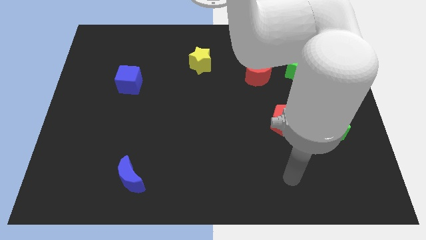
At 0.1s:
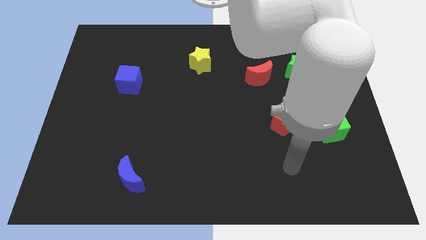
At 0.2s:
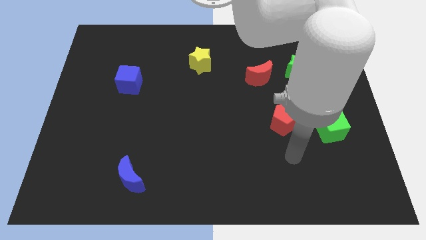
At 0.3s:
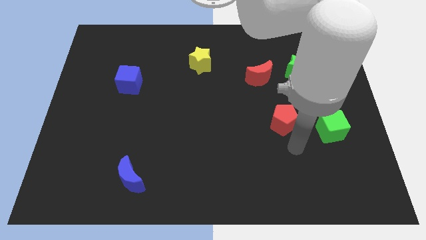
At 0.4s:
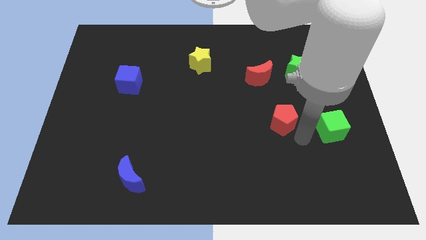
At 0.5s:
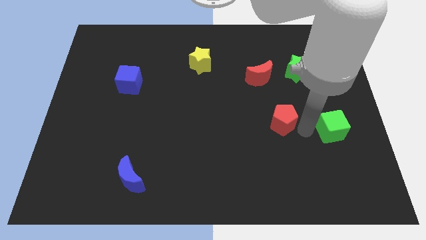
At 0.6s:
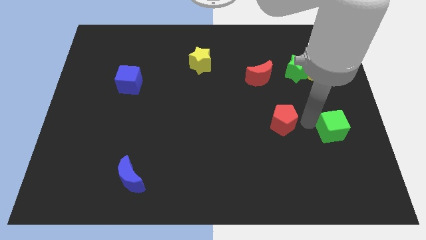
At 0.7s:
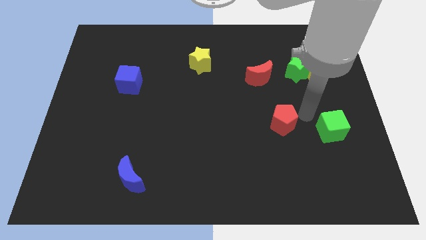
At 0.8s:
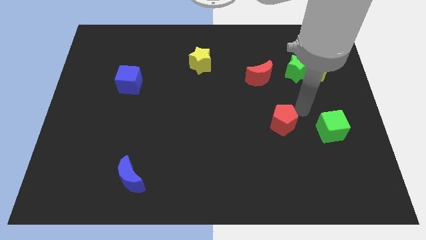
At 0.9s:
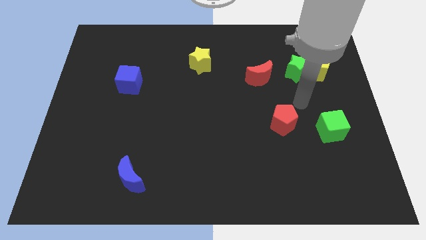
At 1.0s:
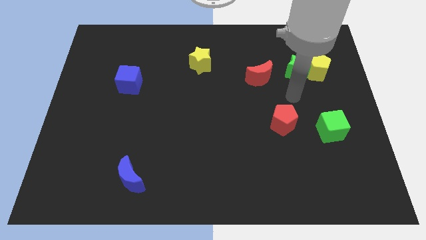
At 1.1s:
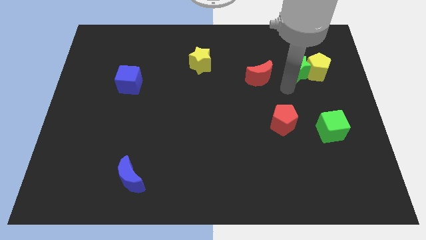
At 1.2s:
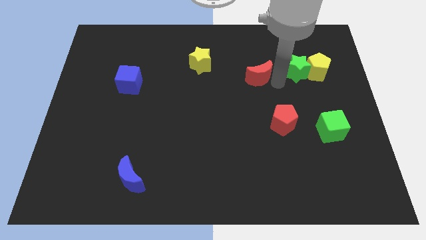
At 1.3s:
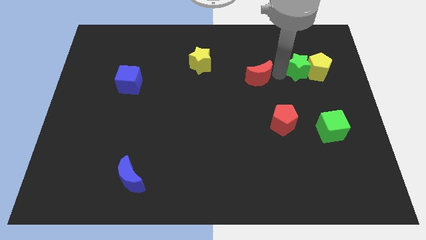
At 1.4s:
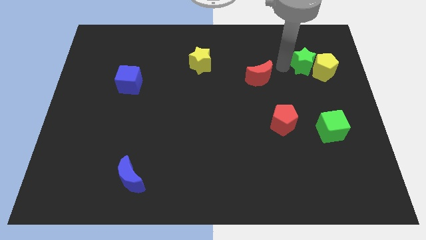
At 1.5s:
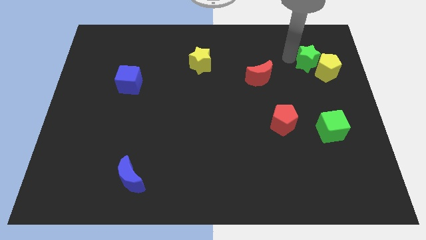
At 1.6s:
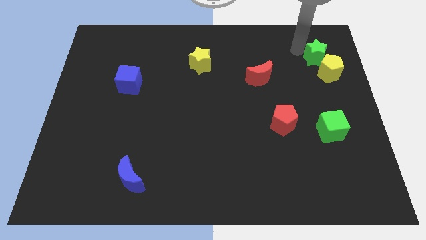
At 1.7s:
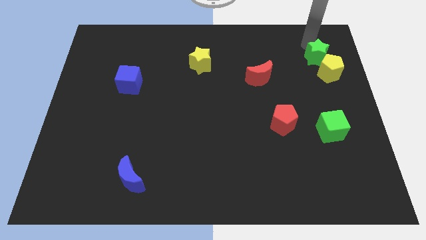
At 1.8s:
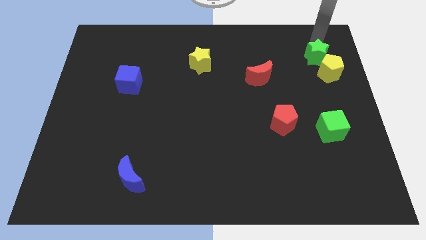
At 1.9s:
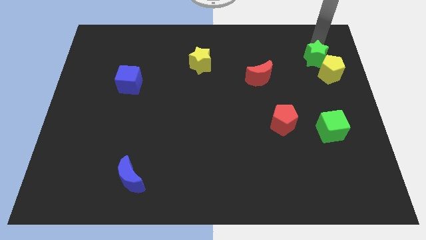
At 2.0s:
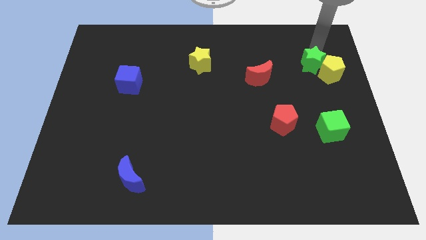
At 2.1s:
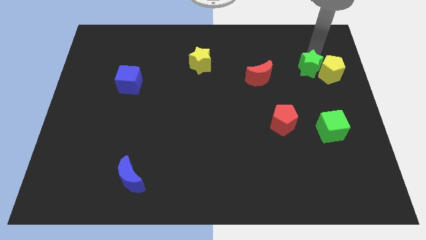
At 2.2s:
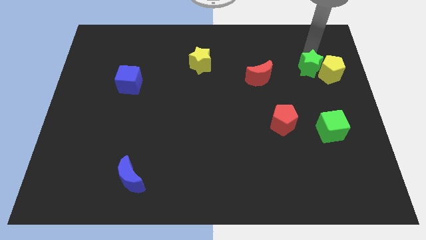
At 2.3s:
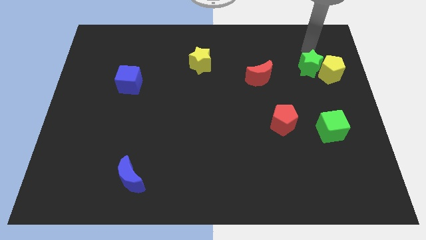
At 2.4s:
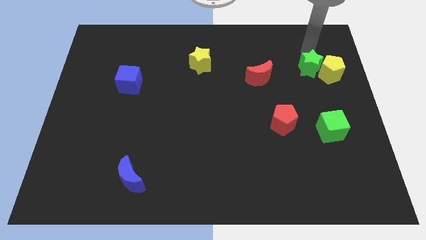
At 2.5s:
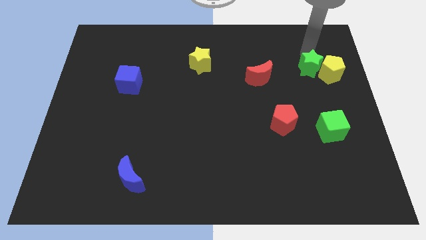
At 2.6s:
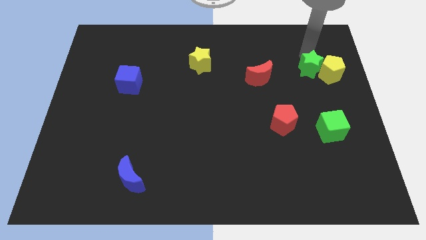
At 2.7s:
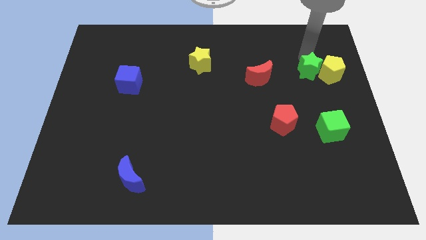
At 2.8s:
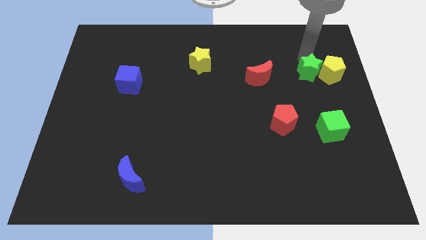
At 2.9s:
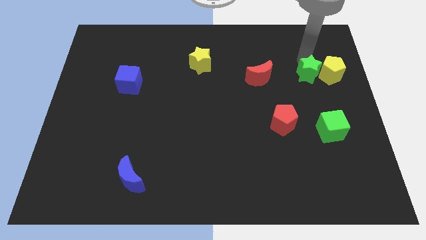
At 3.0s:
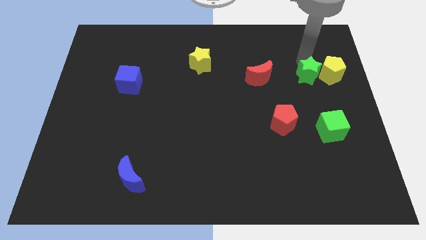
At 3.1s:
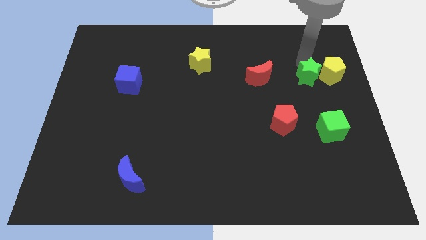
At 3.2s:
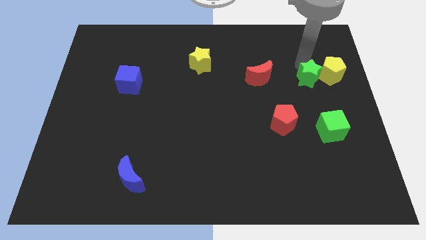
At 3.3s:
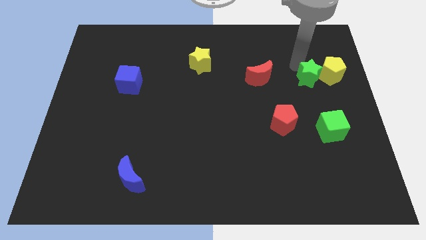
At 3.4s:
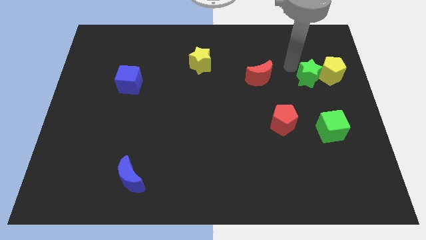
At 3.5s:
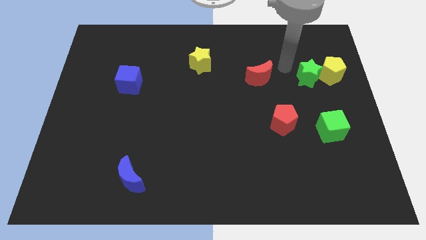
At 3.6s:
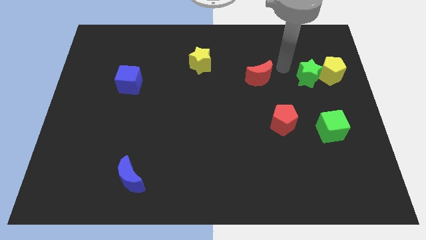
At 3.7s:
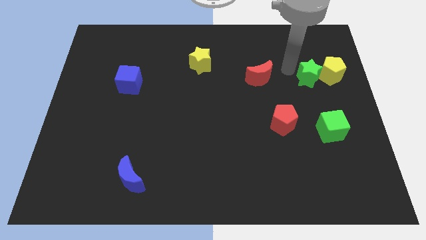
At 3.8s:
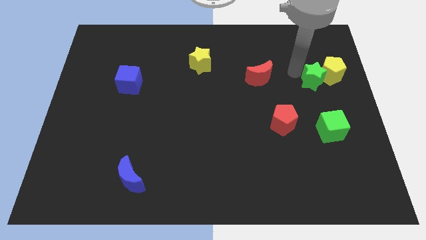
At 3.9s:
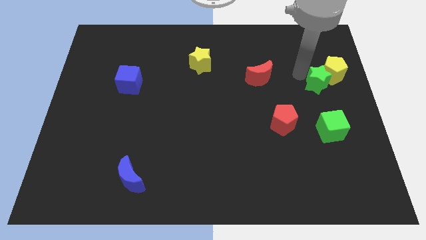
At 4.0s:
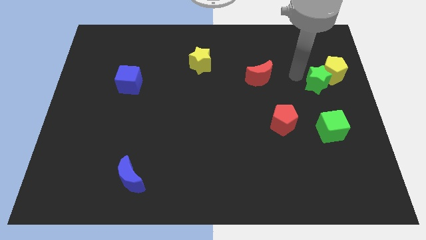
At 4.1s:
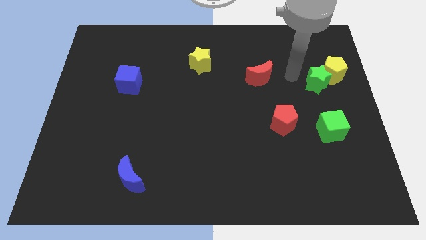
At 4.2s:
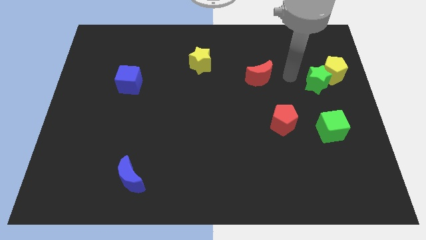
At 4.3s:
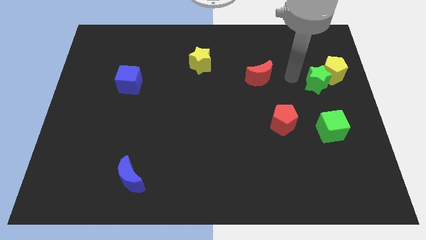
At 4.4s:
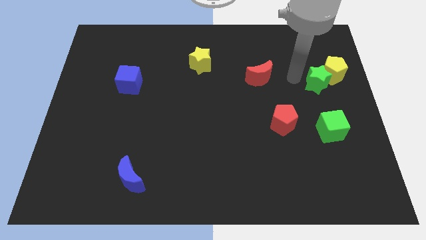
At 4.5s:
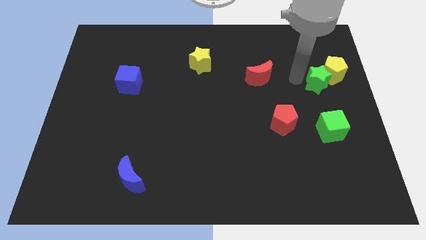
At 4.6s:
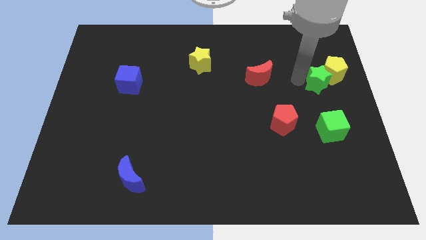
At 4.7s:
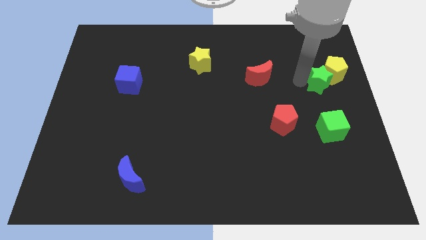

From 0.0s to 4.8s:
push the green star to the right side of the board

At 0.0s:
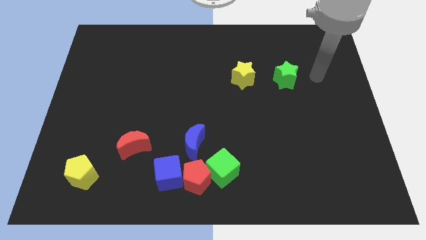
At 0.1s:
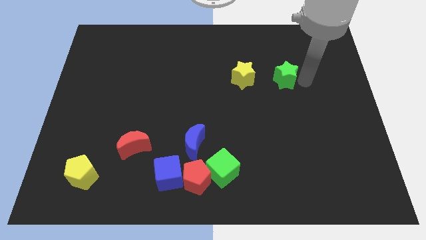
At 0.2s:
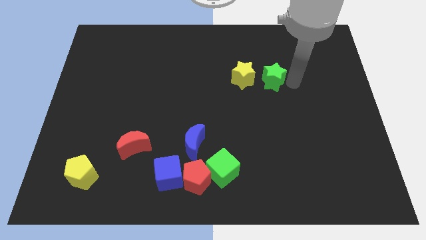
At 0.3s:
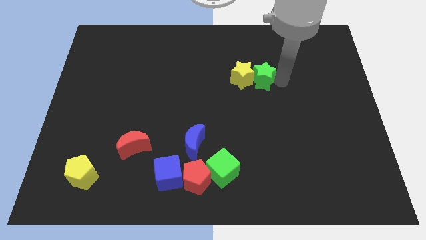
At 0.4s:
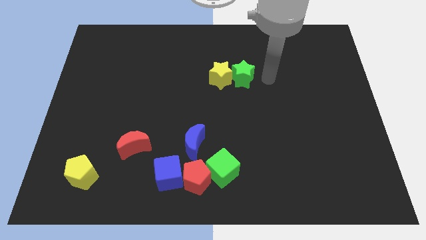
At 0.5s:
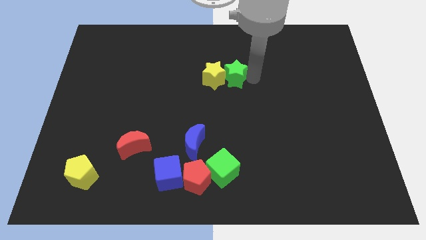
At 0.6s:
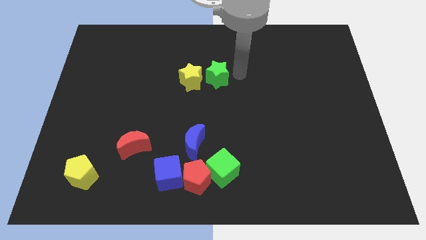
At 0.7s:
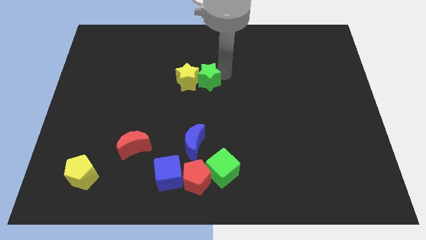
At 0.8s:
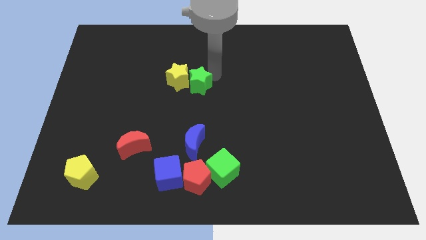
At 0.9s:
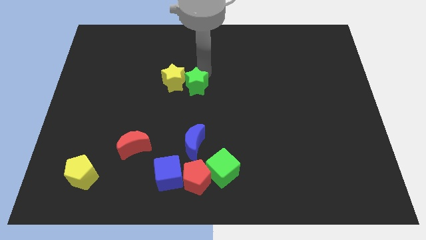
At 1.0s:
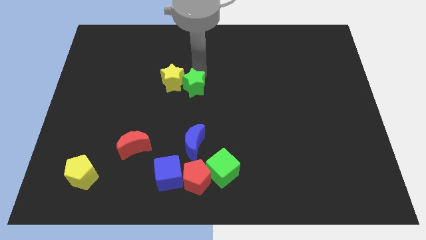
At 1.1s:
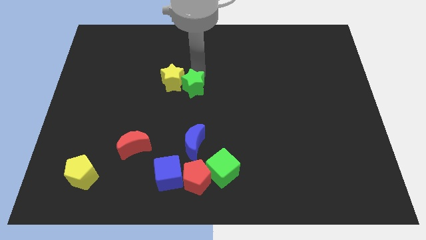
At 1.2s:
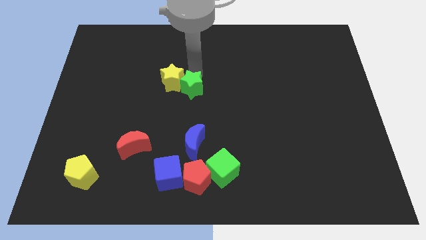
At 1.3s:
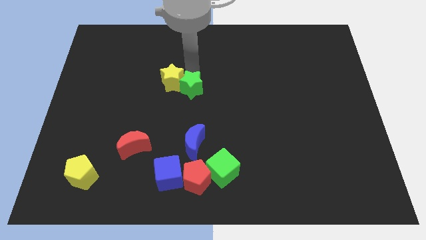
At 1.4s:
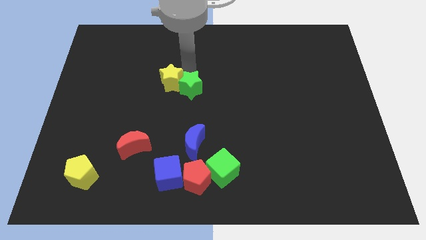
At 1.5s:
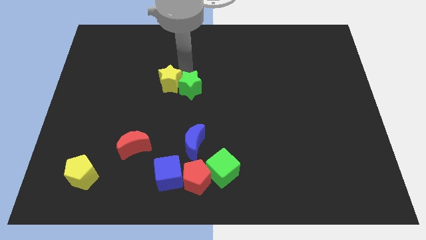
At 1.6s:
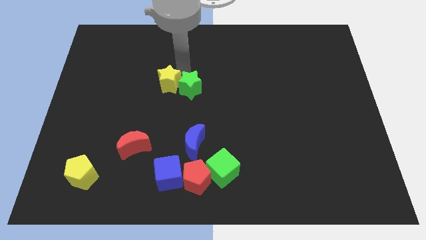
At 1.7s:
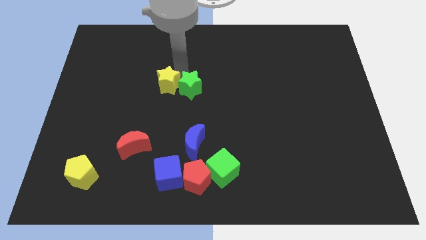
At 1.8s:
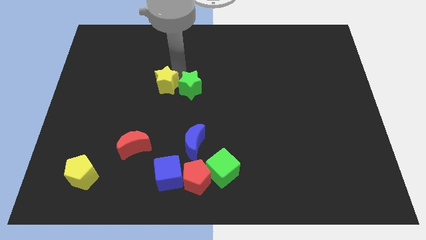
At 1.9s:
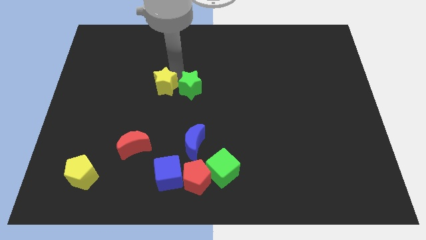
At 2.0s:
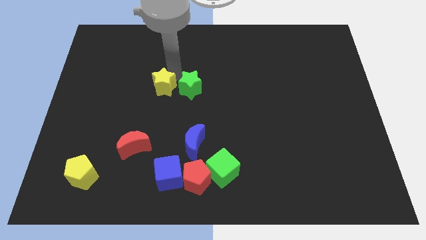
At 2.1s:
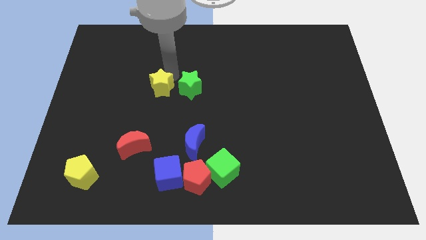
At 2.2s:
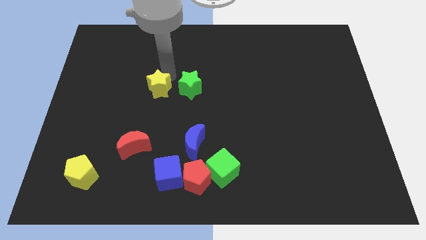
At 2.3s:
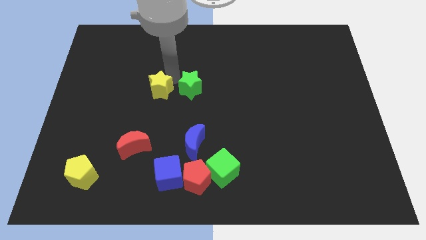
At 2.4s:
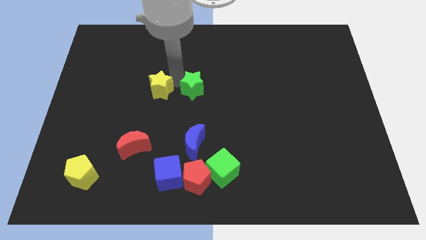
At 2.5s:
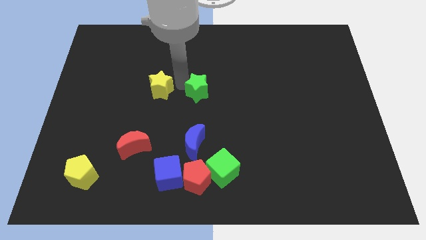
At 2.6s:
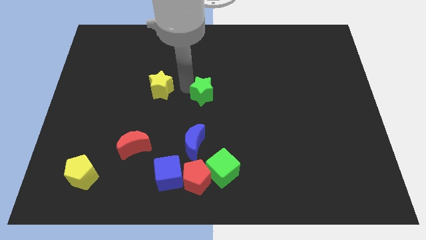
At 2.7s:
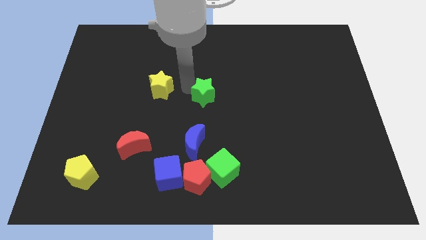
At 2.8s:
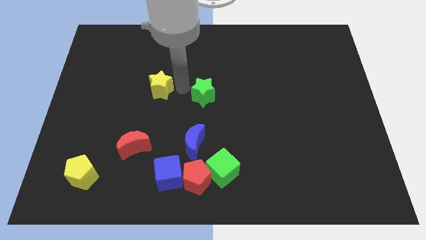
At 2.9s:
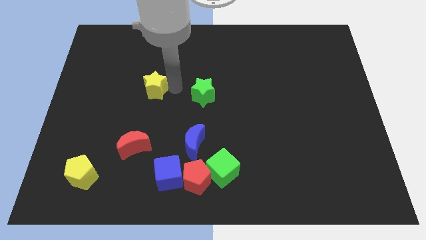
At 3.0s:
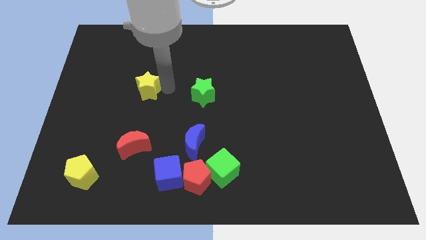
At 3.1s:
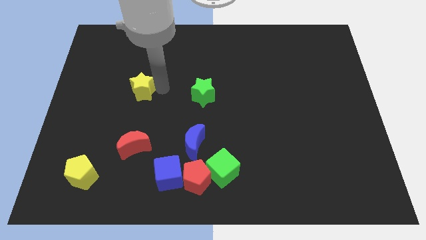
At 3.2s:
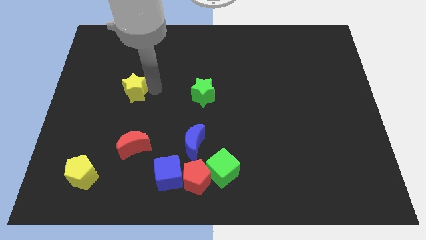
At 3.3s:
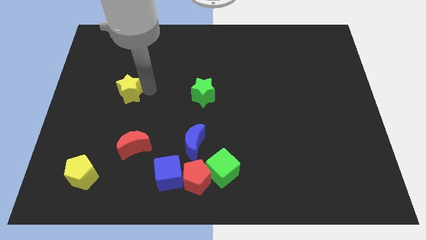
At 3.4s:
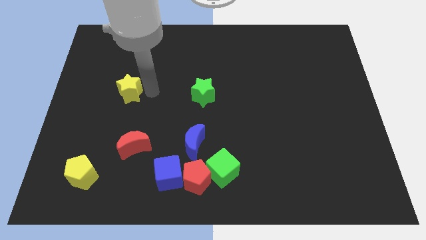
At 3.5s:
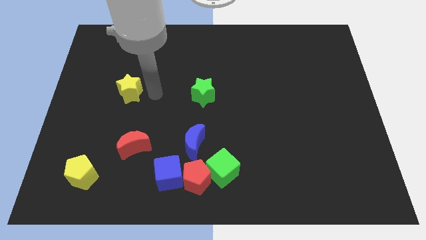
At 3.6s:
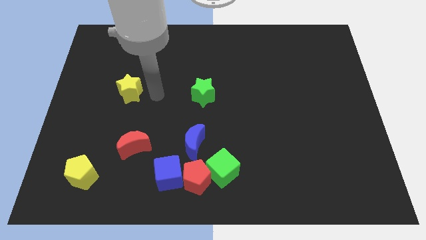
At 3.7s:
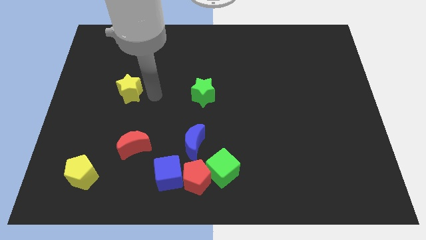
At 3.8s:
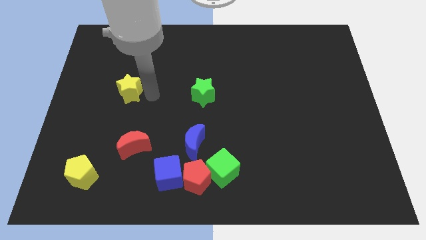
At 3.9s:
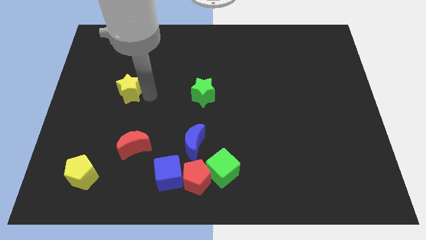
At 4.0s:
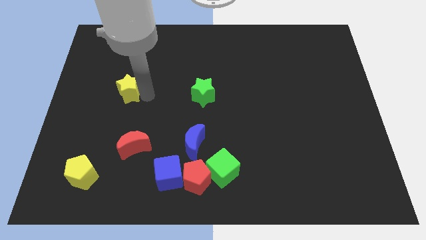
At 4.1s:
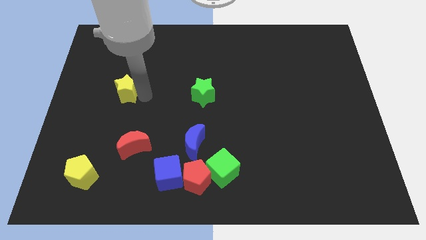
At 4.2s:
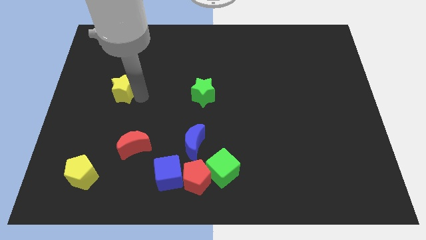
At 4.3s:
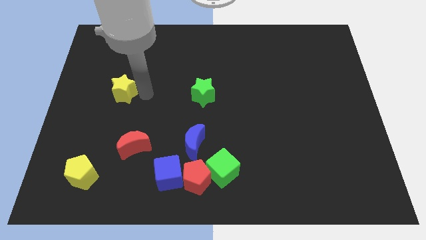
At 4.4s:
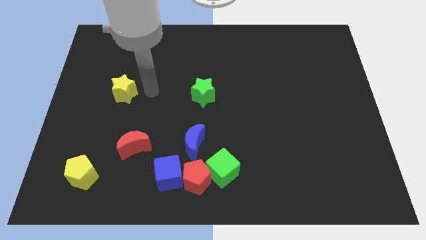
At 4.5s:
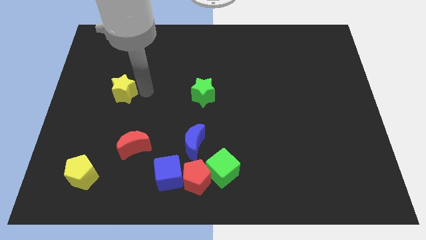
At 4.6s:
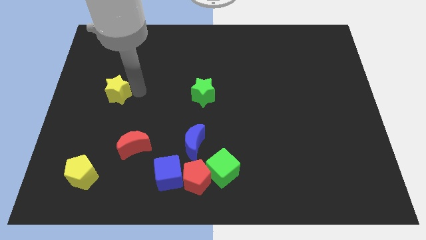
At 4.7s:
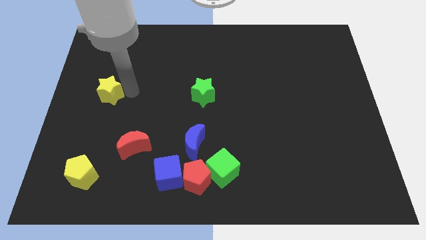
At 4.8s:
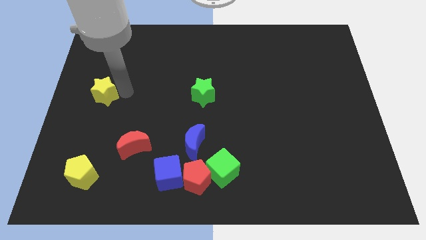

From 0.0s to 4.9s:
move the yellow star to the left side
